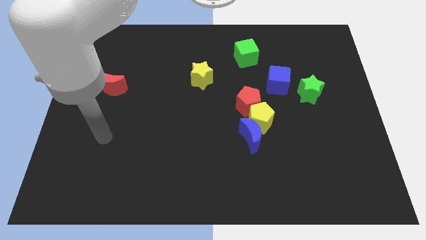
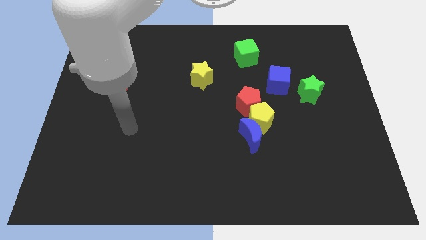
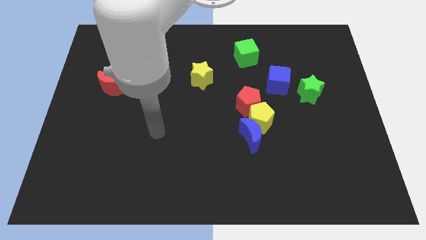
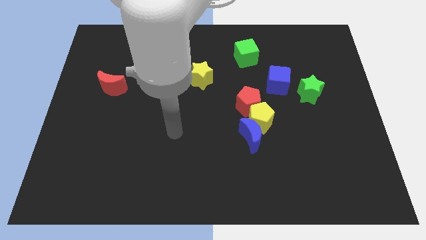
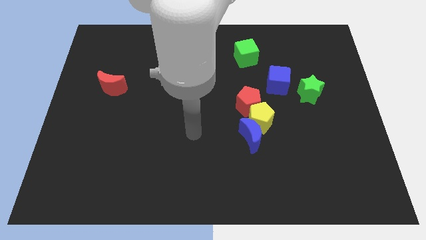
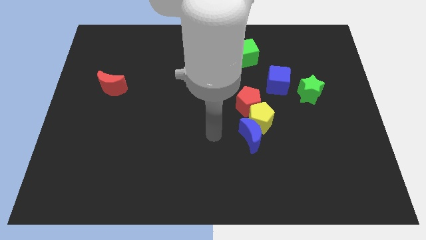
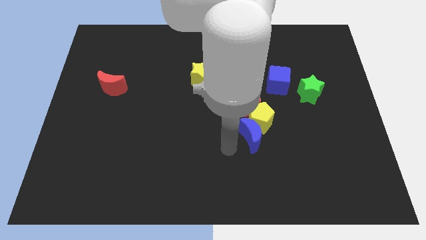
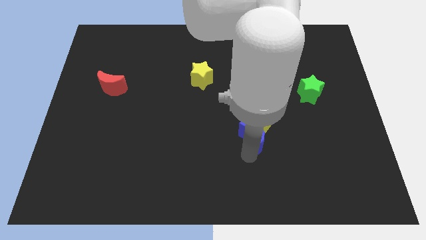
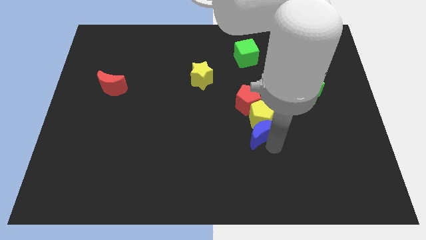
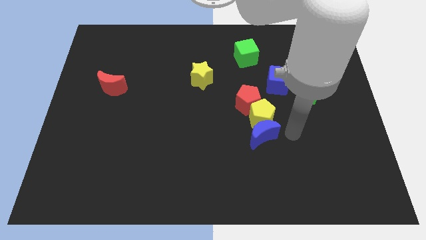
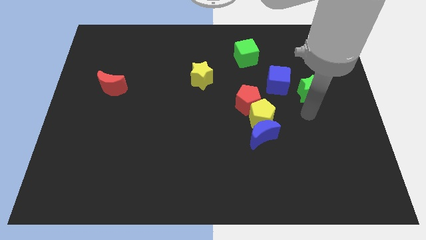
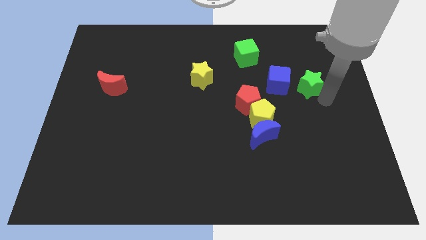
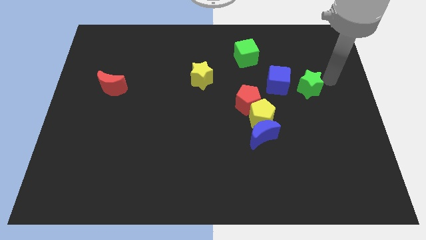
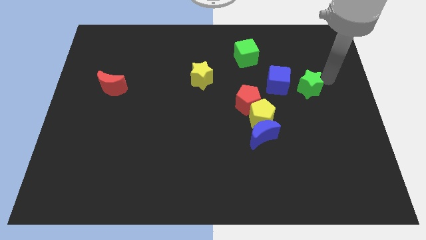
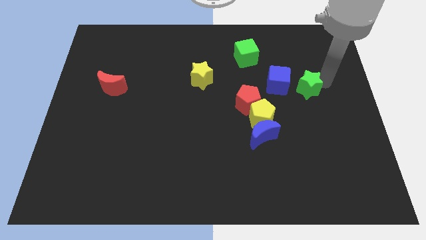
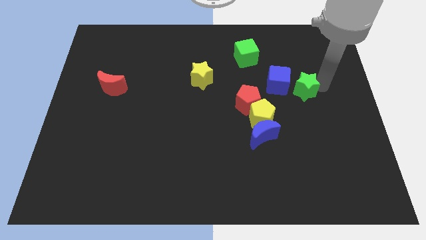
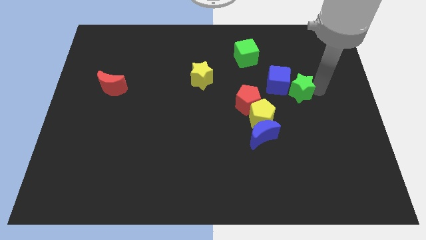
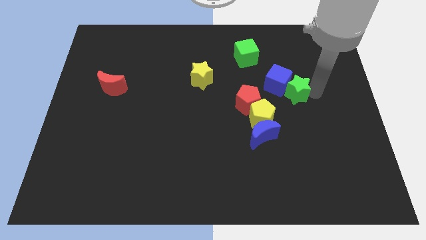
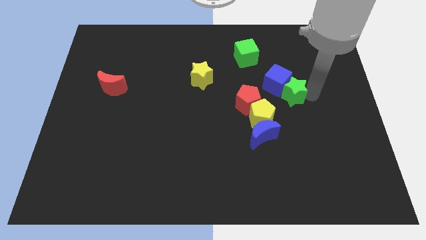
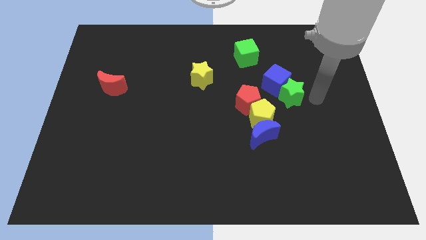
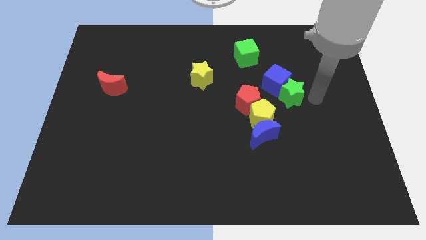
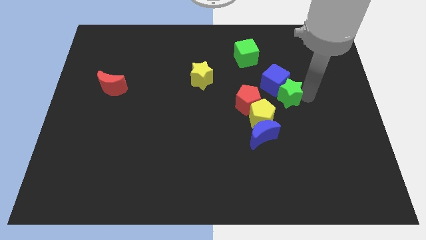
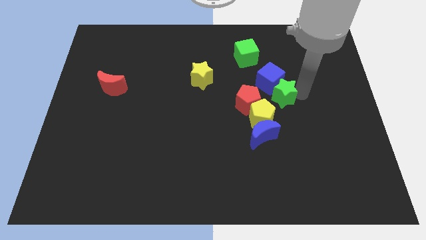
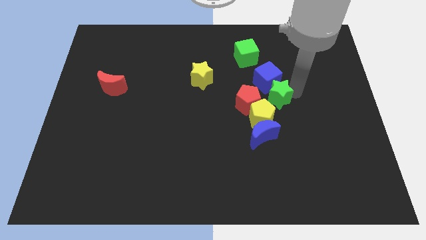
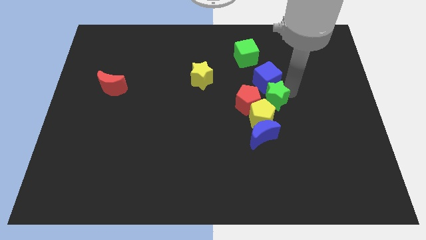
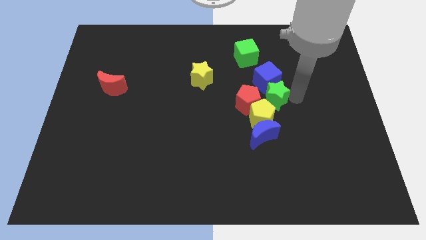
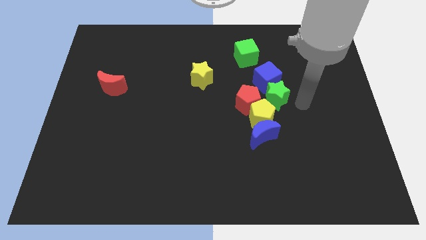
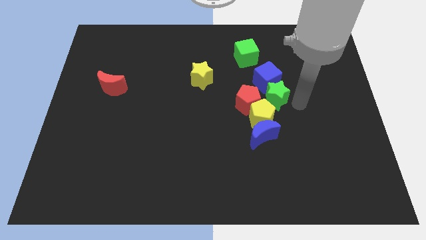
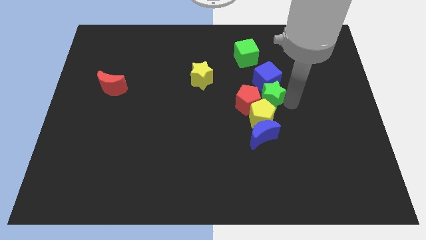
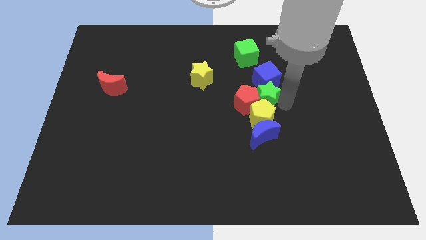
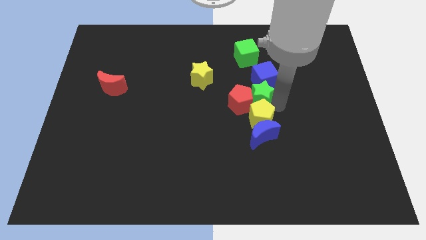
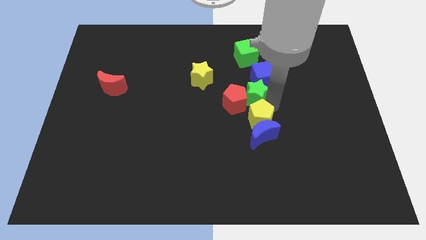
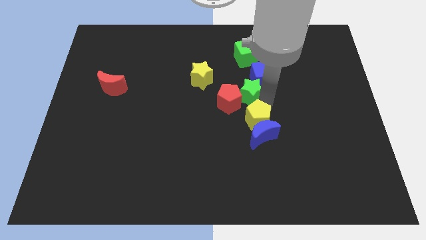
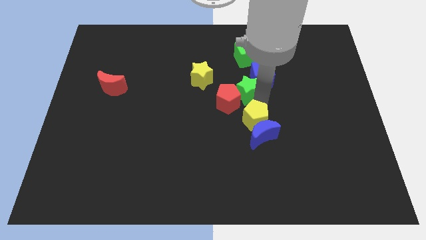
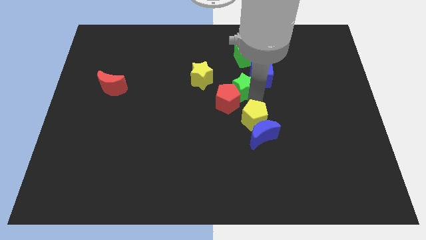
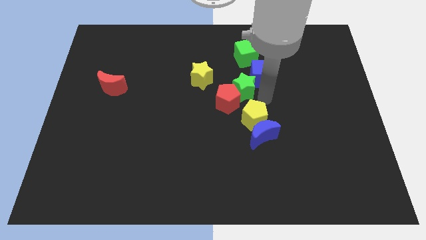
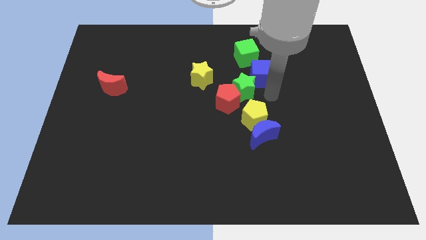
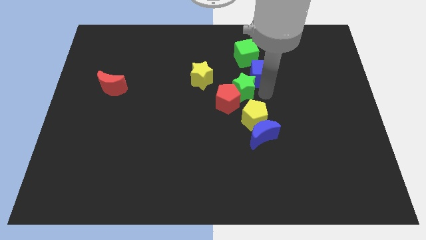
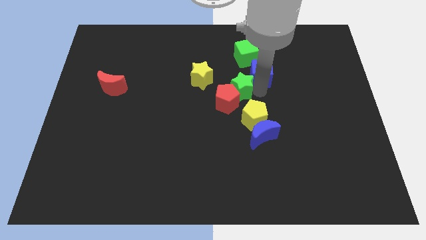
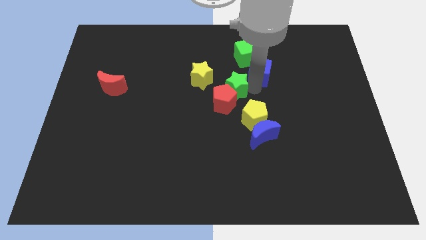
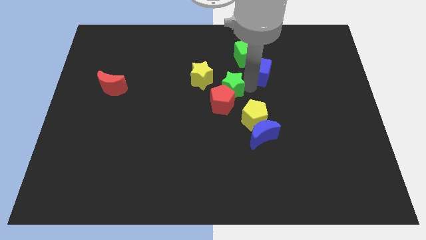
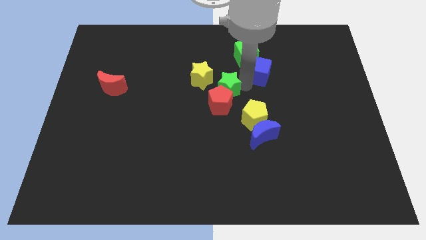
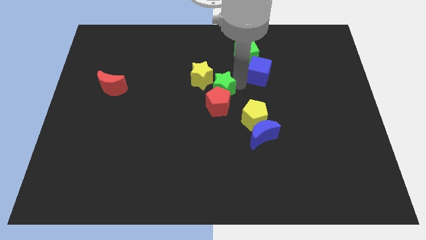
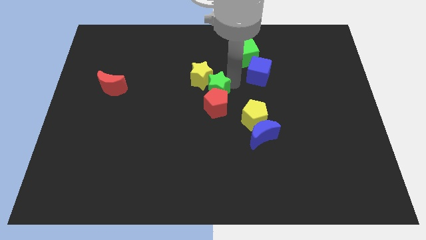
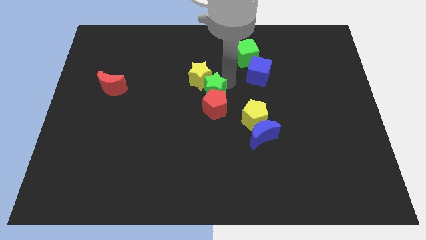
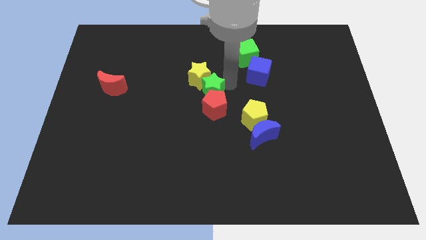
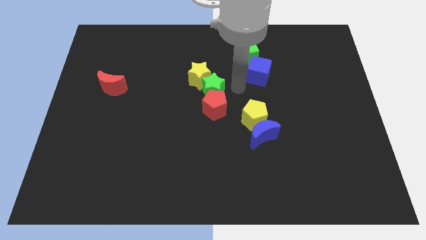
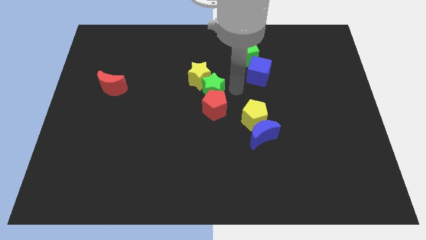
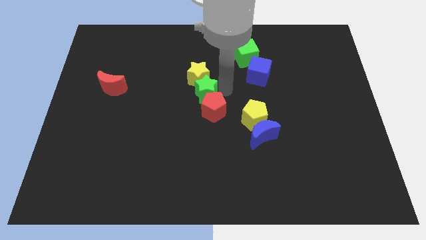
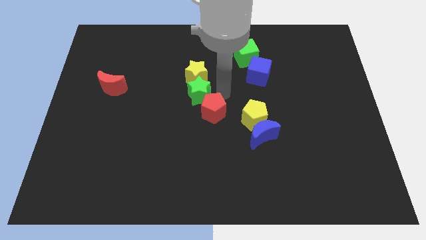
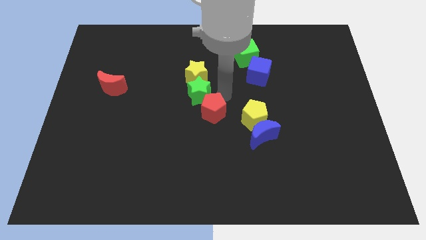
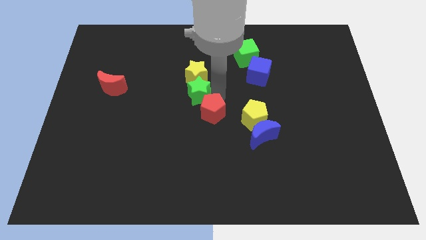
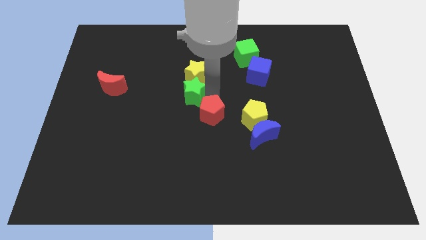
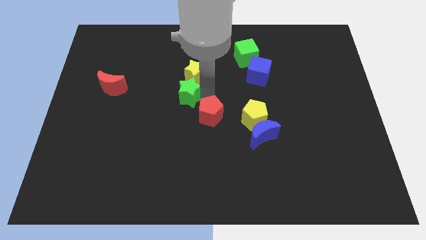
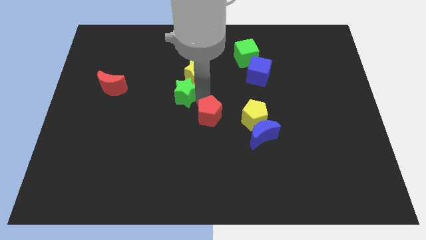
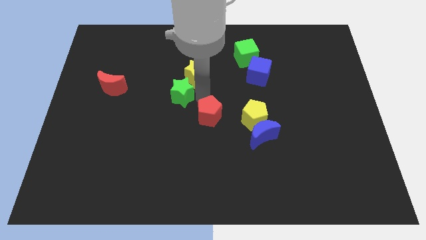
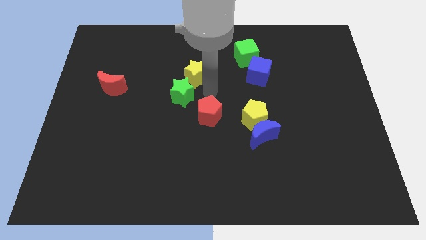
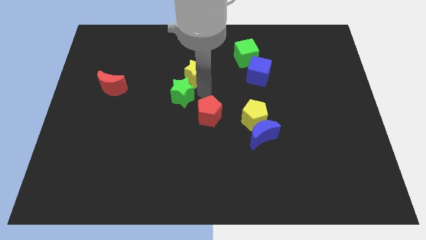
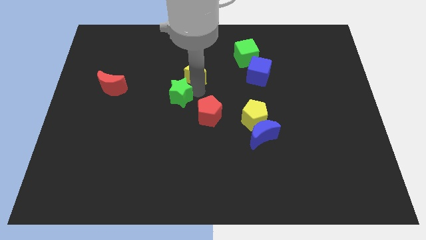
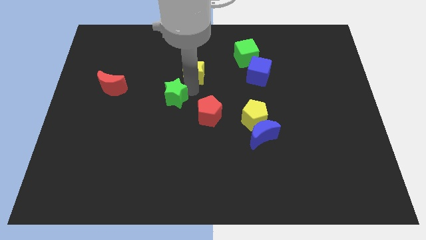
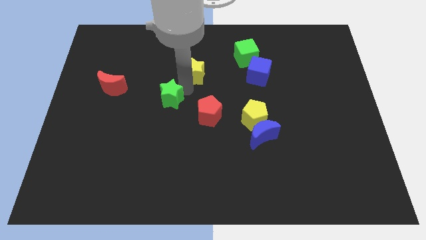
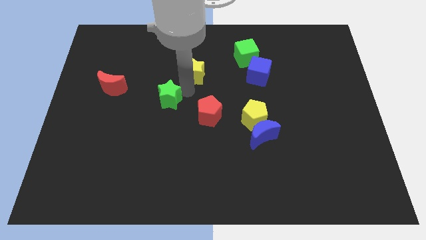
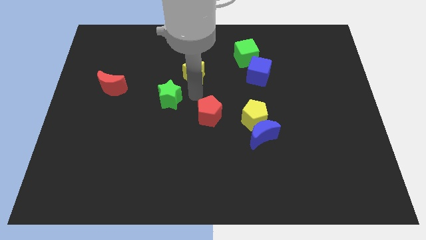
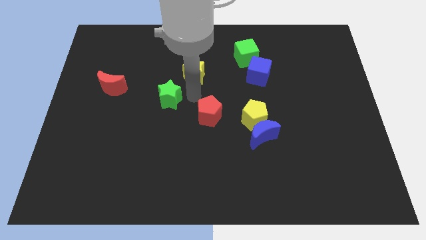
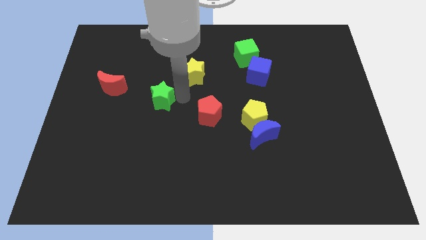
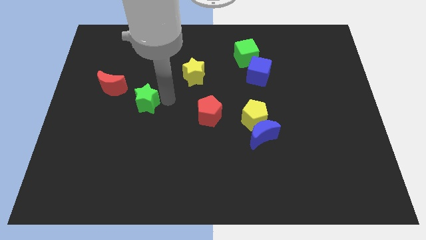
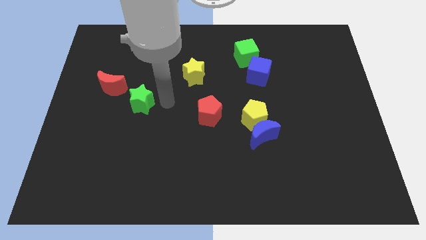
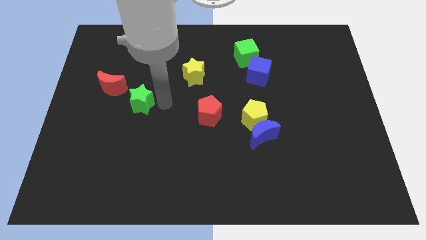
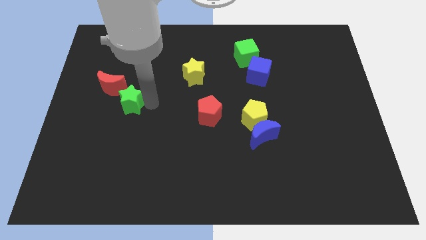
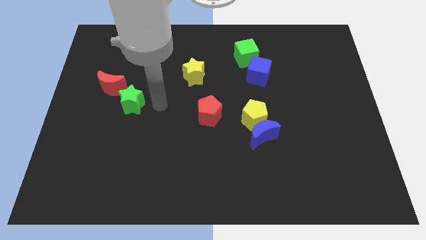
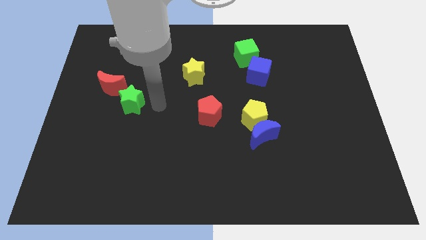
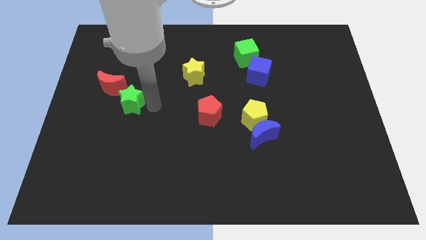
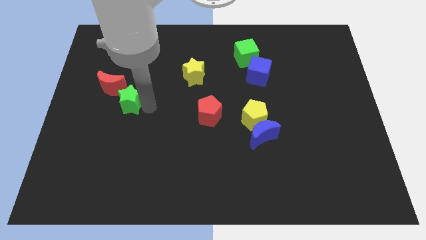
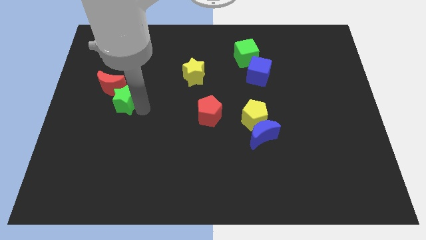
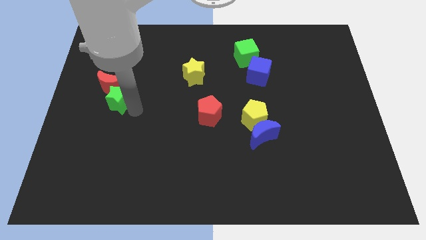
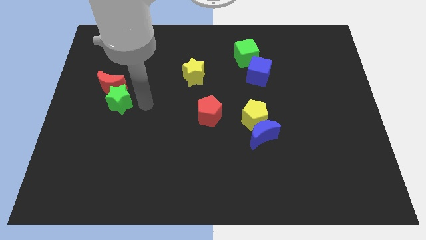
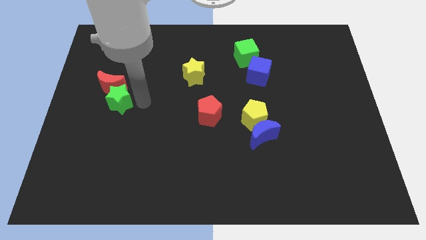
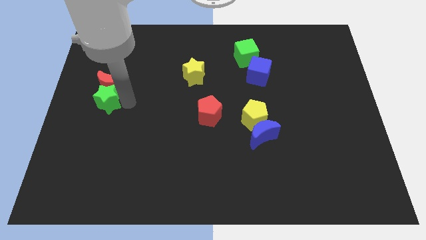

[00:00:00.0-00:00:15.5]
move the green star to the center left
